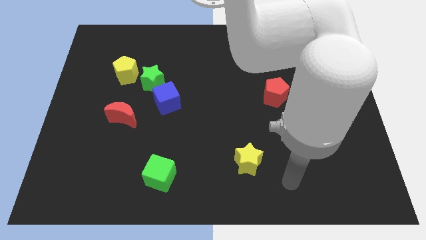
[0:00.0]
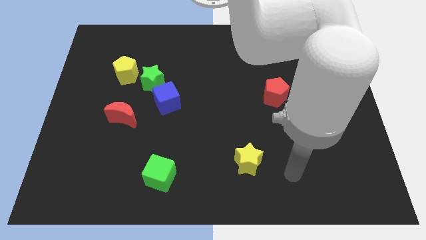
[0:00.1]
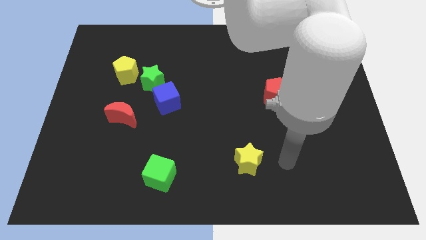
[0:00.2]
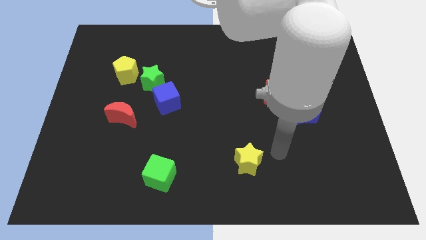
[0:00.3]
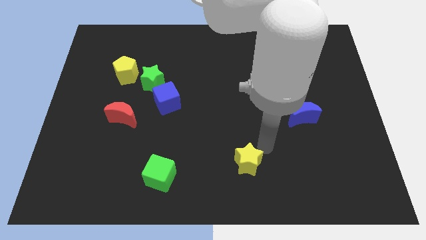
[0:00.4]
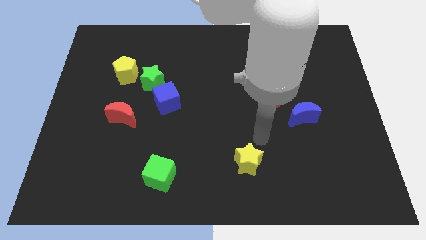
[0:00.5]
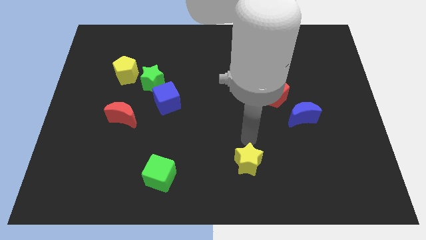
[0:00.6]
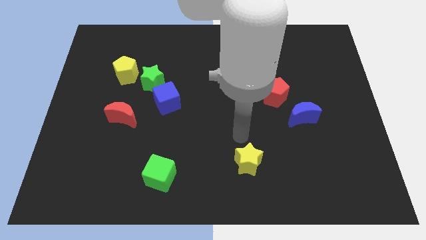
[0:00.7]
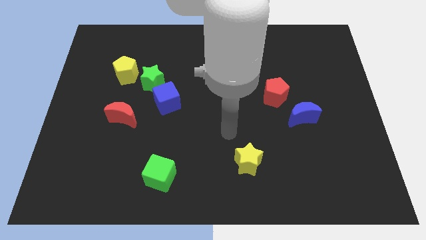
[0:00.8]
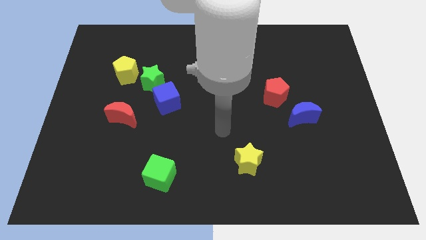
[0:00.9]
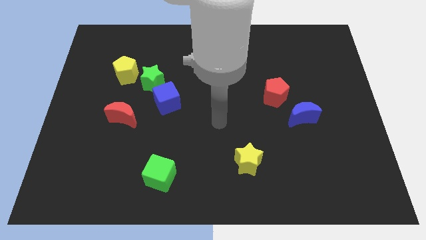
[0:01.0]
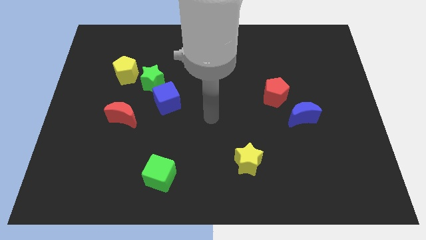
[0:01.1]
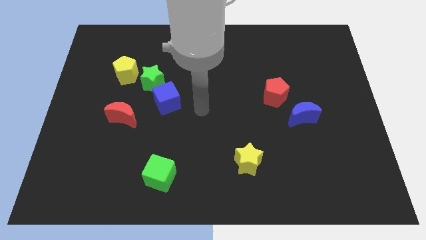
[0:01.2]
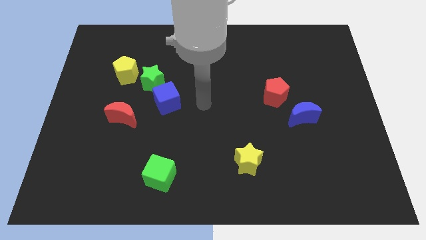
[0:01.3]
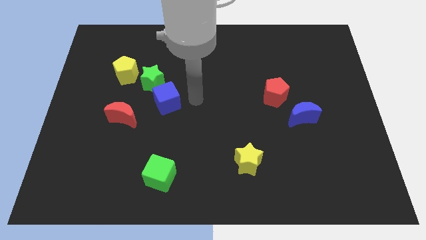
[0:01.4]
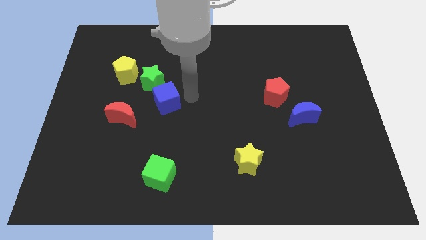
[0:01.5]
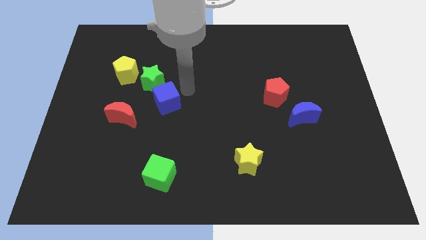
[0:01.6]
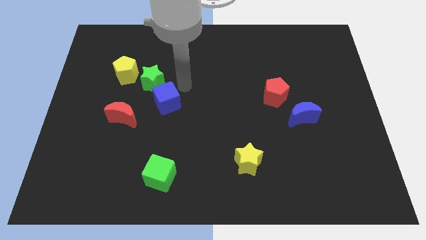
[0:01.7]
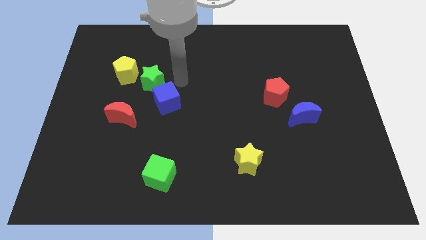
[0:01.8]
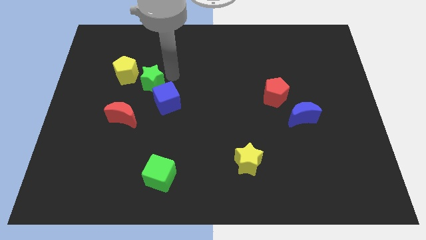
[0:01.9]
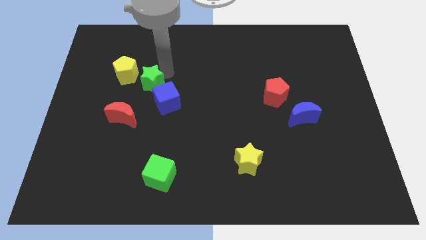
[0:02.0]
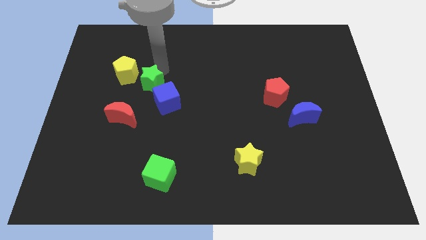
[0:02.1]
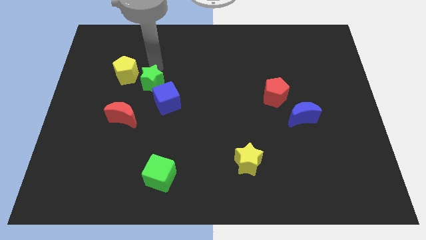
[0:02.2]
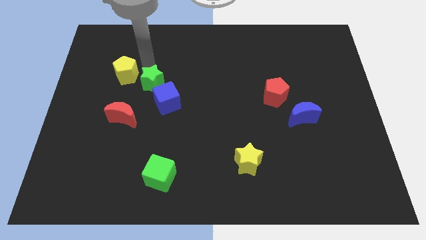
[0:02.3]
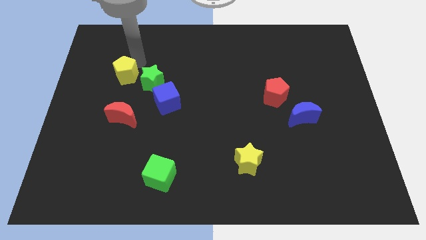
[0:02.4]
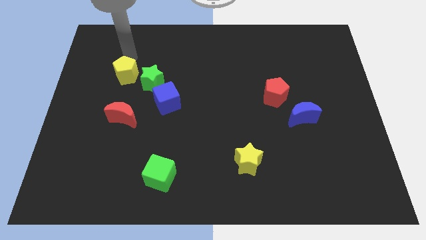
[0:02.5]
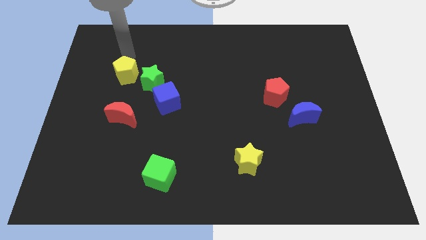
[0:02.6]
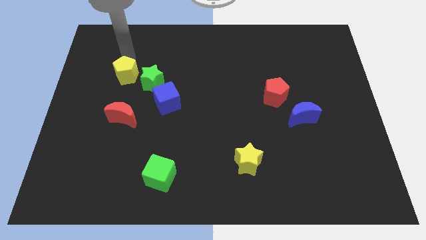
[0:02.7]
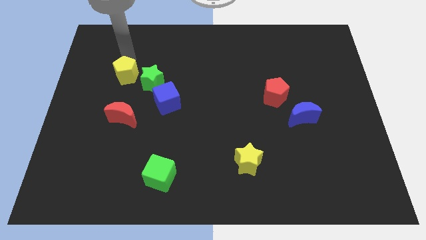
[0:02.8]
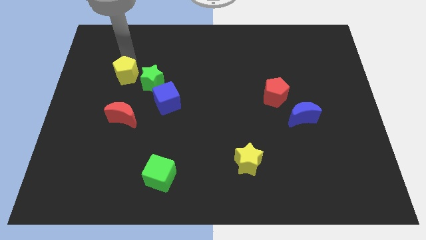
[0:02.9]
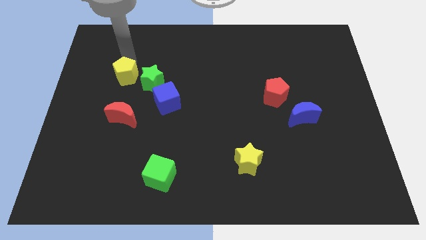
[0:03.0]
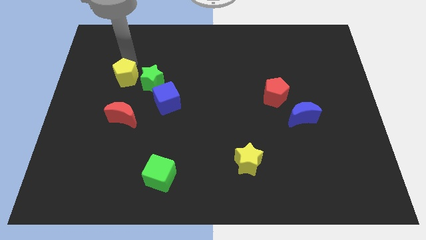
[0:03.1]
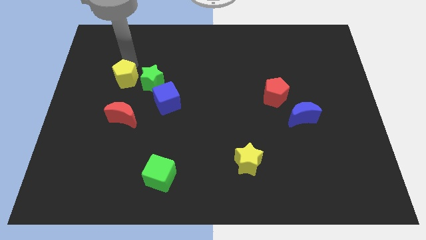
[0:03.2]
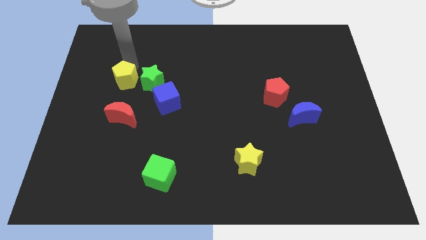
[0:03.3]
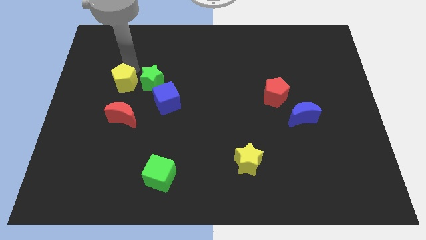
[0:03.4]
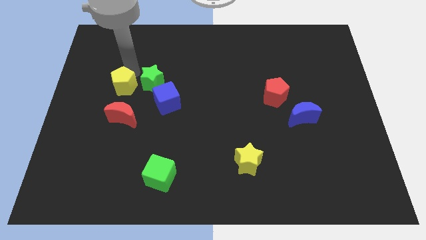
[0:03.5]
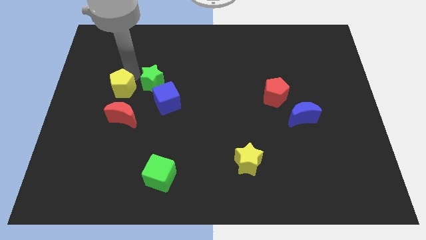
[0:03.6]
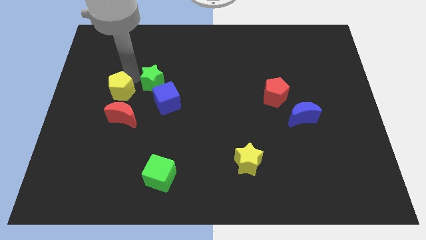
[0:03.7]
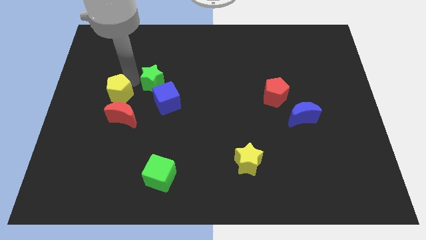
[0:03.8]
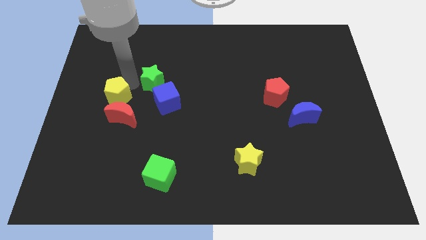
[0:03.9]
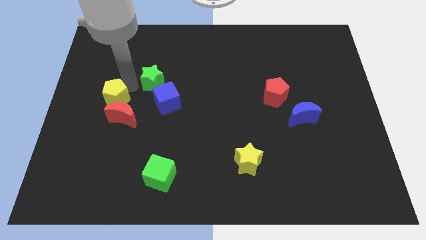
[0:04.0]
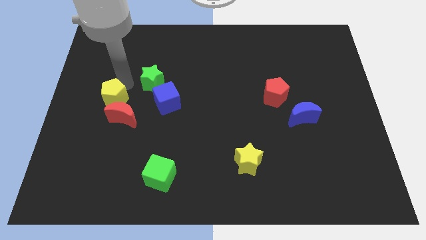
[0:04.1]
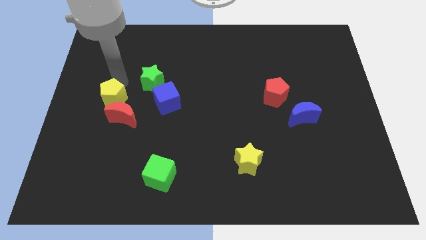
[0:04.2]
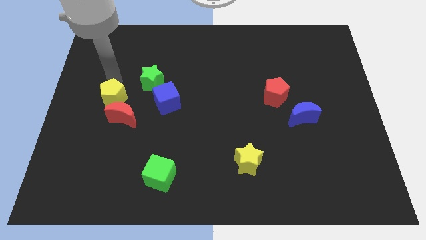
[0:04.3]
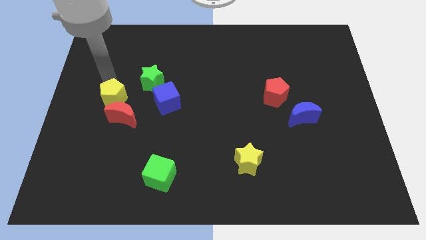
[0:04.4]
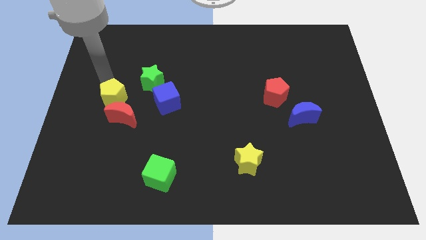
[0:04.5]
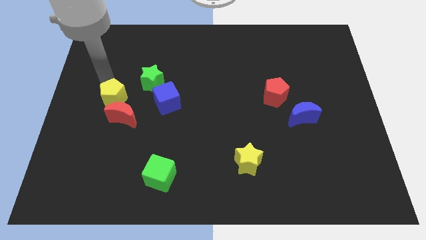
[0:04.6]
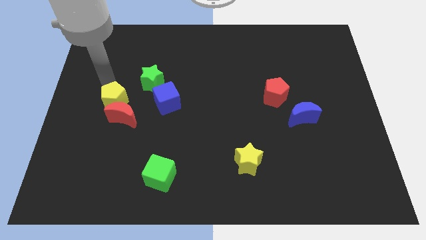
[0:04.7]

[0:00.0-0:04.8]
move the yellow pentagon to the red moon

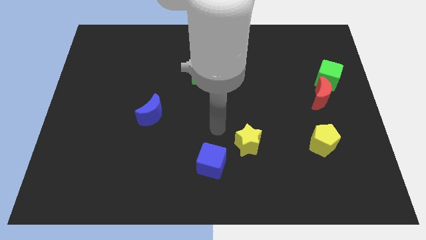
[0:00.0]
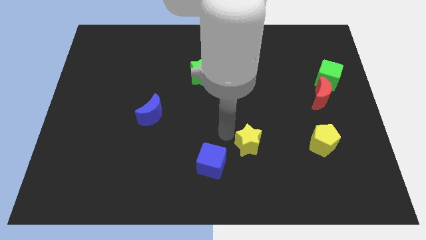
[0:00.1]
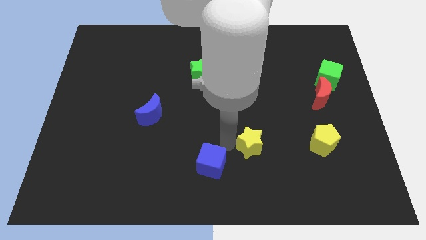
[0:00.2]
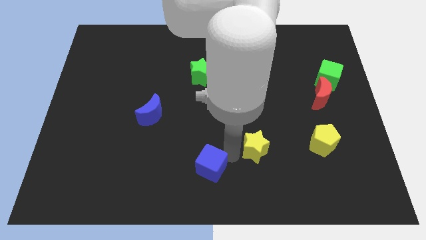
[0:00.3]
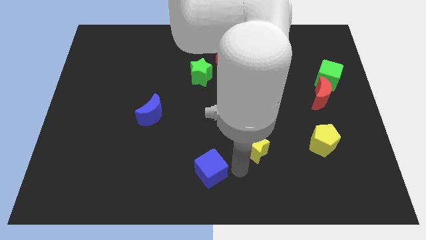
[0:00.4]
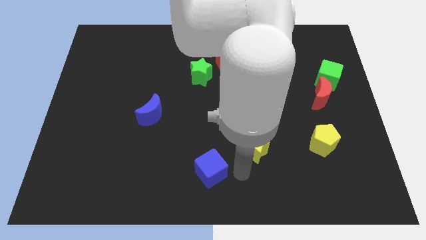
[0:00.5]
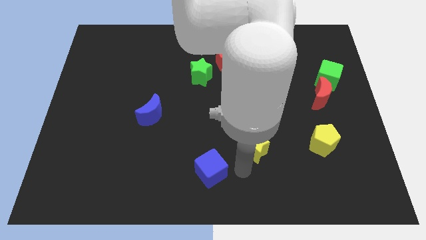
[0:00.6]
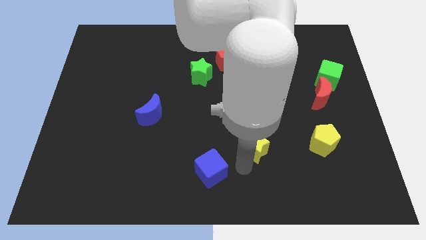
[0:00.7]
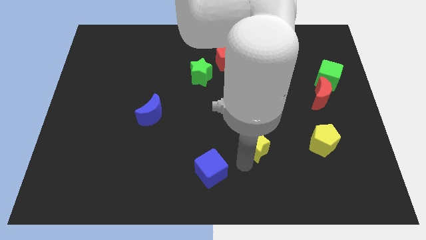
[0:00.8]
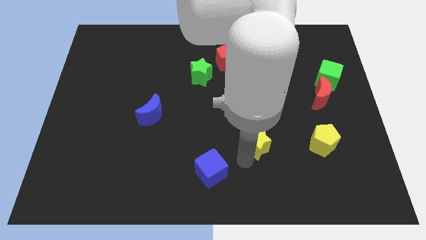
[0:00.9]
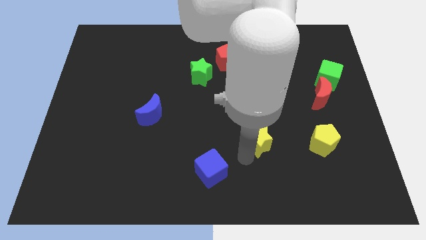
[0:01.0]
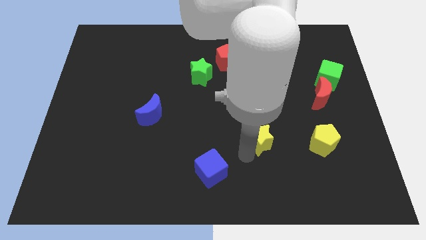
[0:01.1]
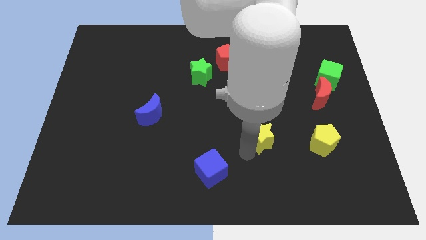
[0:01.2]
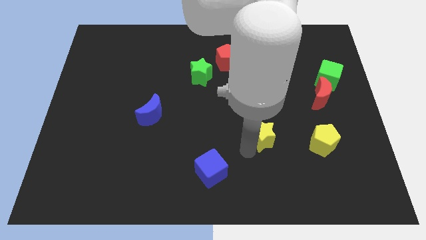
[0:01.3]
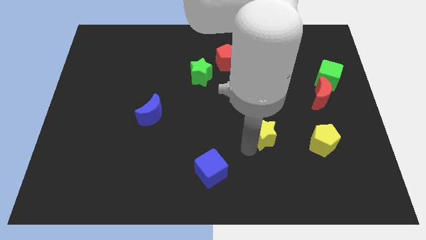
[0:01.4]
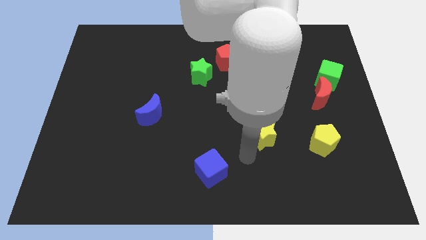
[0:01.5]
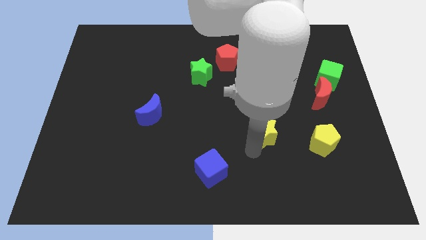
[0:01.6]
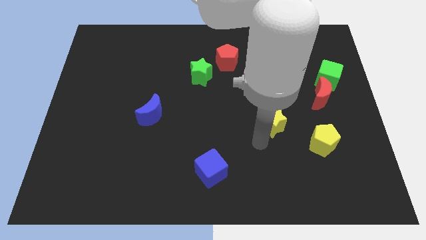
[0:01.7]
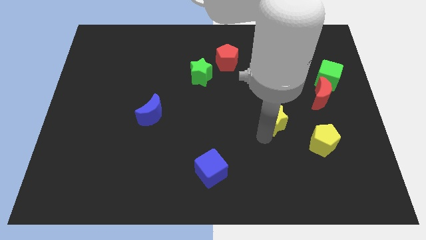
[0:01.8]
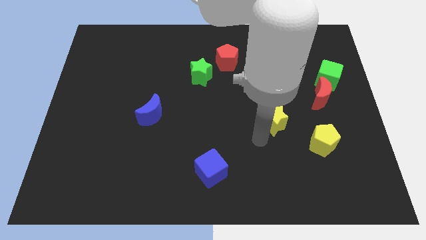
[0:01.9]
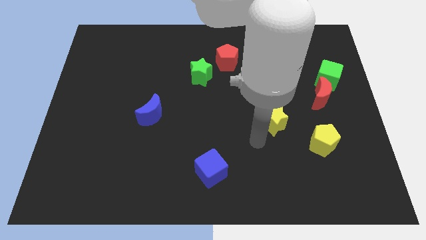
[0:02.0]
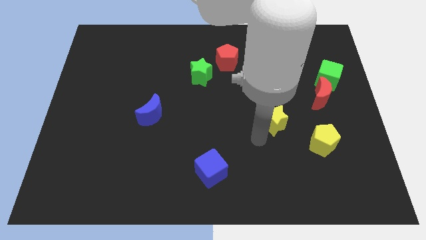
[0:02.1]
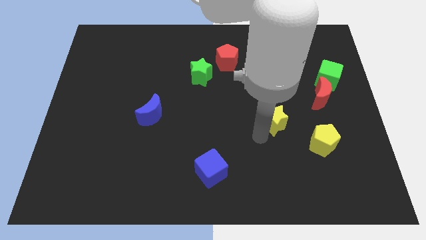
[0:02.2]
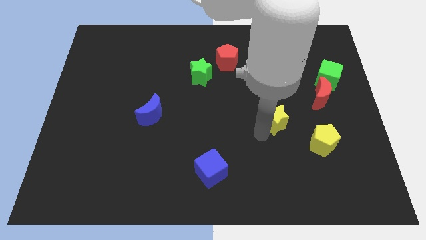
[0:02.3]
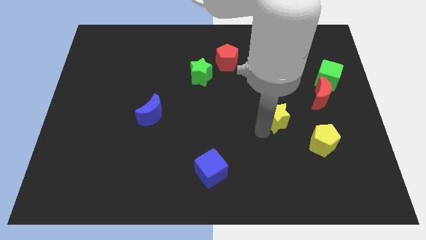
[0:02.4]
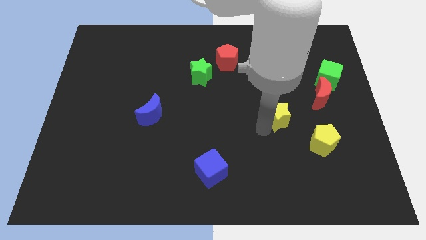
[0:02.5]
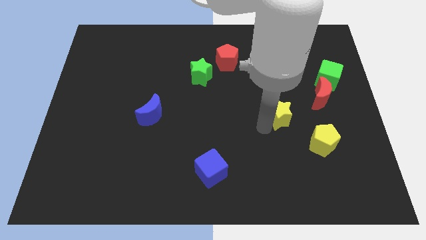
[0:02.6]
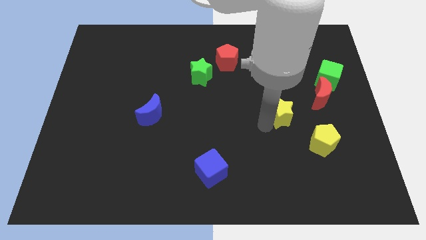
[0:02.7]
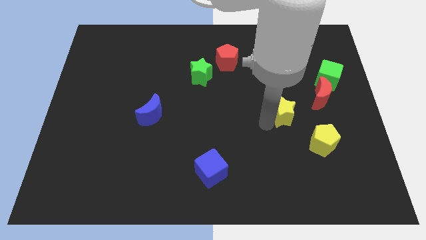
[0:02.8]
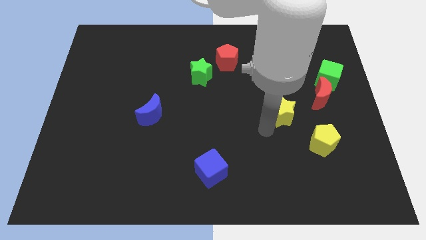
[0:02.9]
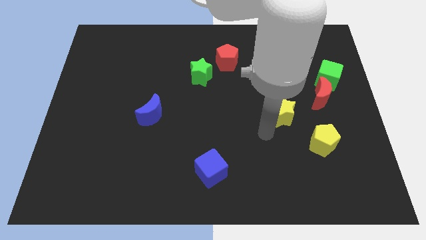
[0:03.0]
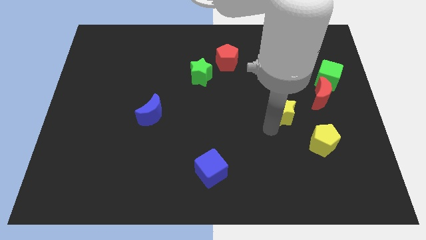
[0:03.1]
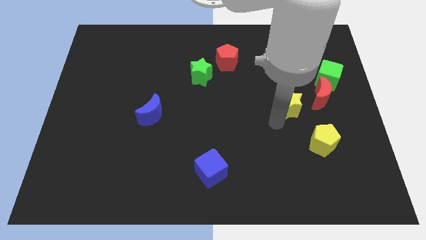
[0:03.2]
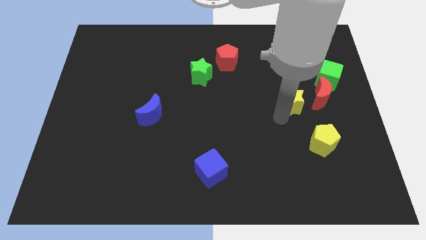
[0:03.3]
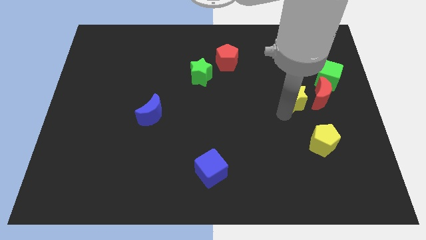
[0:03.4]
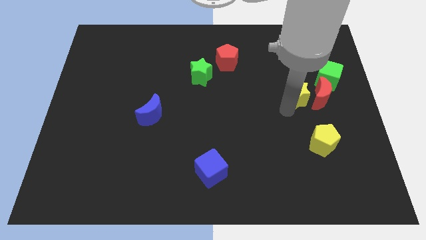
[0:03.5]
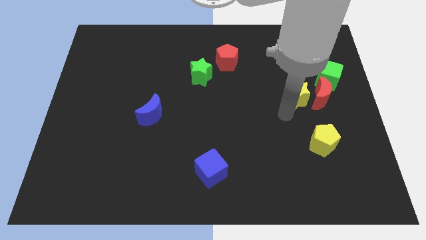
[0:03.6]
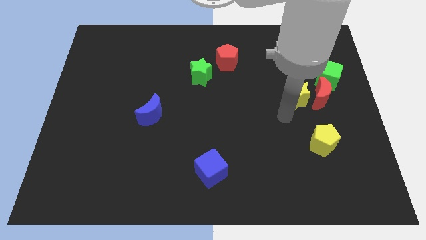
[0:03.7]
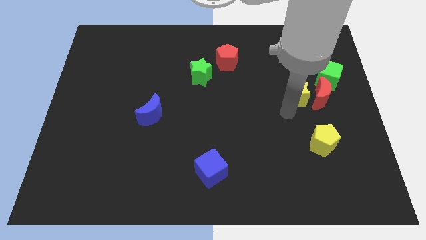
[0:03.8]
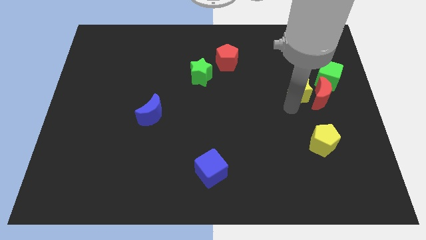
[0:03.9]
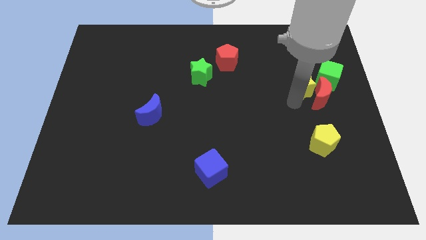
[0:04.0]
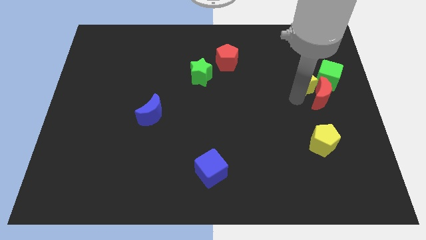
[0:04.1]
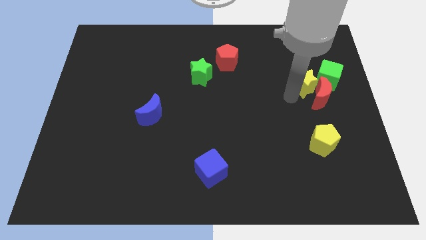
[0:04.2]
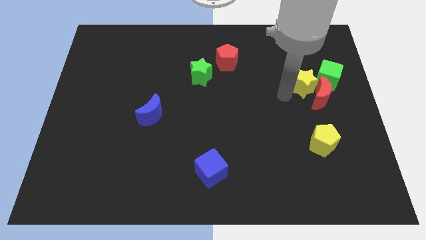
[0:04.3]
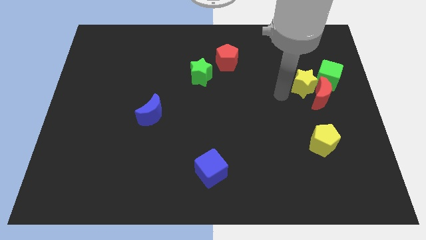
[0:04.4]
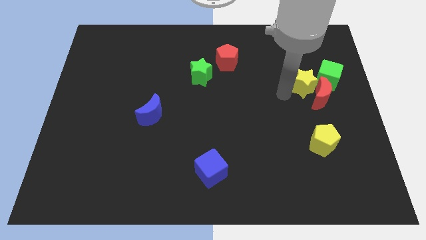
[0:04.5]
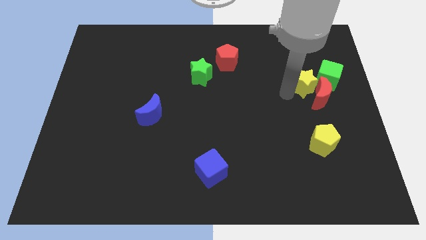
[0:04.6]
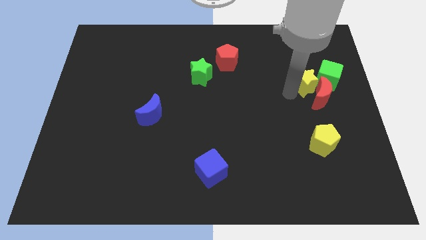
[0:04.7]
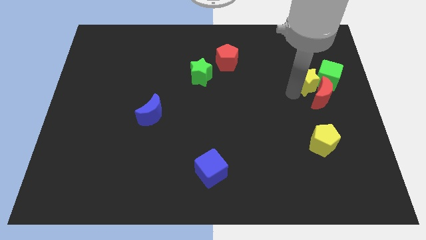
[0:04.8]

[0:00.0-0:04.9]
push the yellow star close to the green cube
